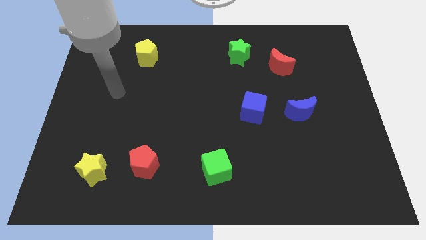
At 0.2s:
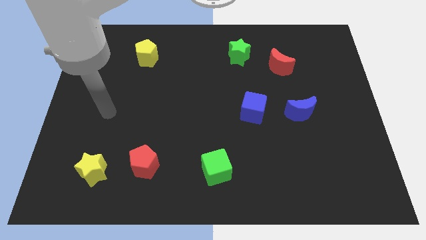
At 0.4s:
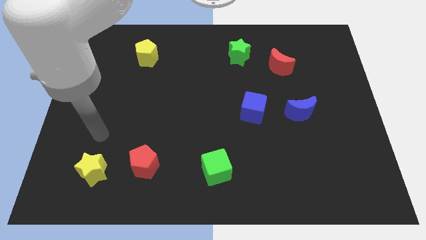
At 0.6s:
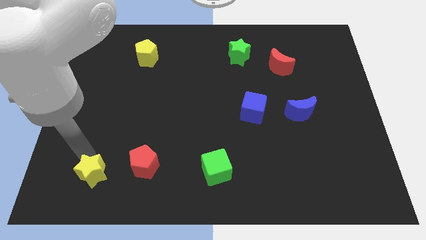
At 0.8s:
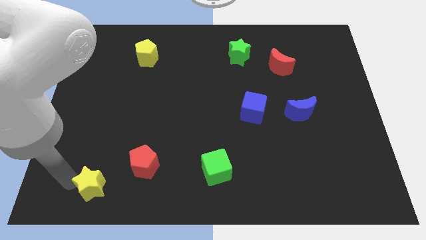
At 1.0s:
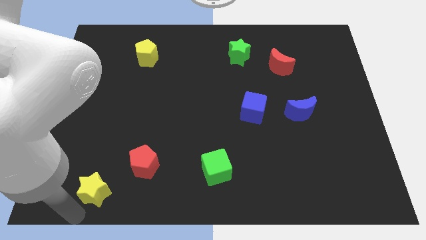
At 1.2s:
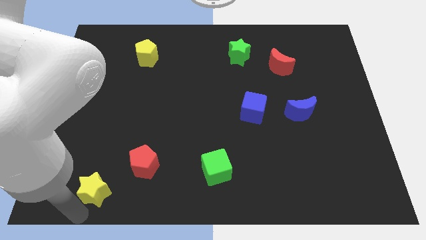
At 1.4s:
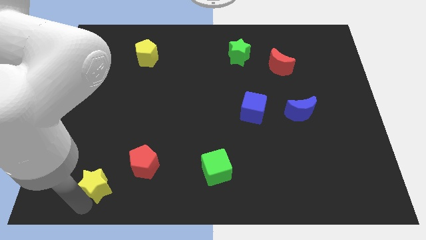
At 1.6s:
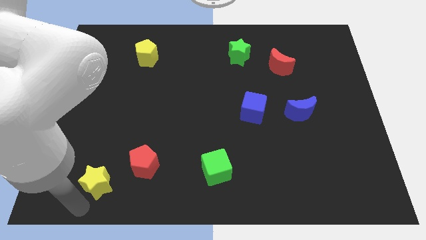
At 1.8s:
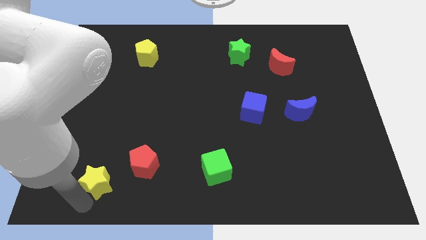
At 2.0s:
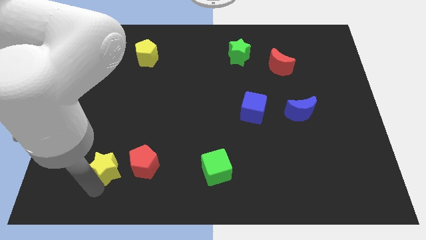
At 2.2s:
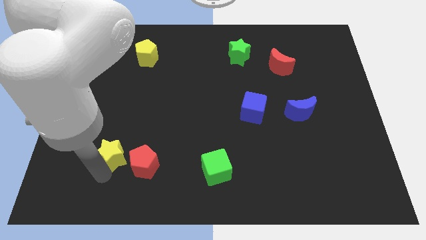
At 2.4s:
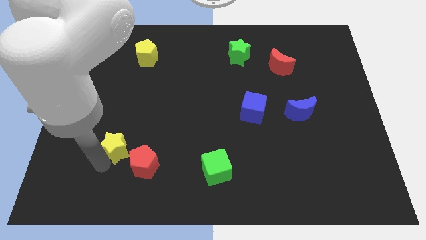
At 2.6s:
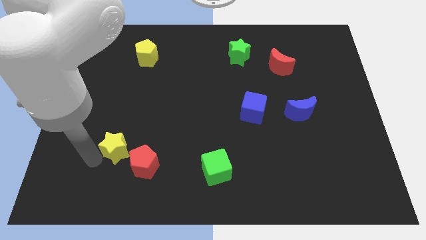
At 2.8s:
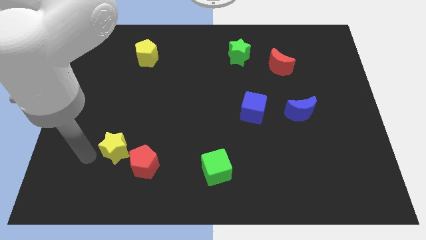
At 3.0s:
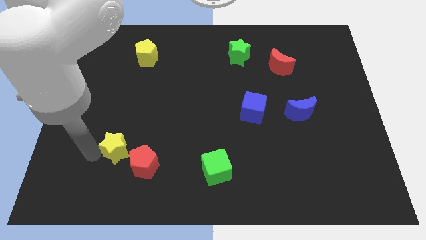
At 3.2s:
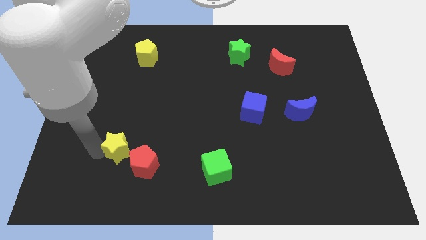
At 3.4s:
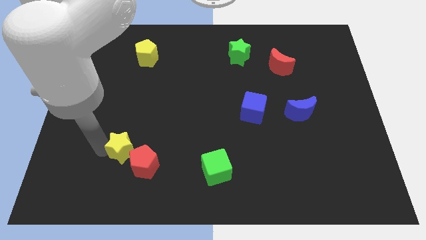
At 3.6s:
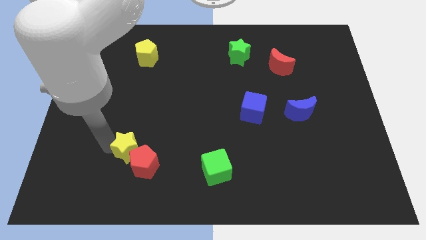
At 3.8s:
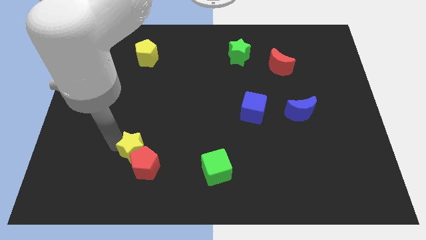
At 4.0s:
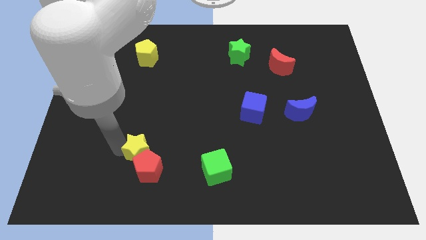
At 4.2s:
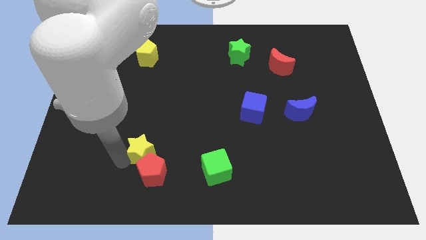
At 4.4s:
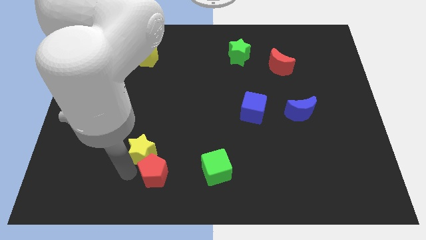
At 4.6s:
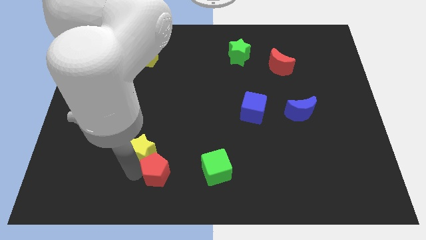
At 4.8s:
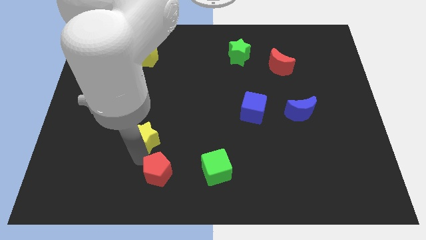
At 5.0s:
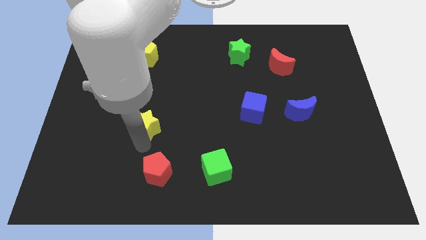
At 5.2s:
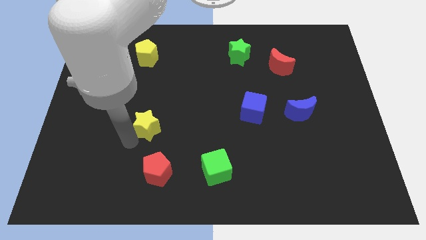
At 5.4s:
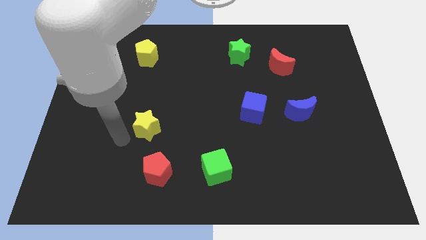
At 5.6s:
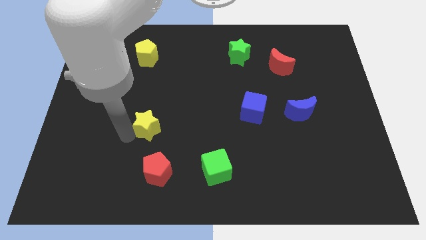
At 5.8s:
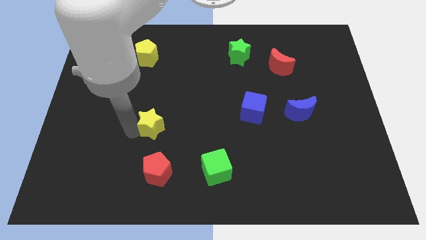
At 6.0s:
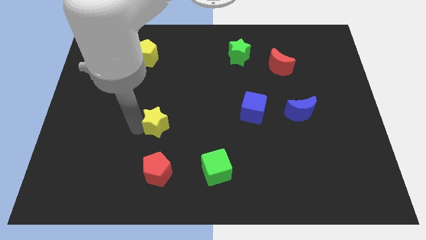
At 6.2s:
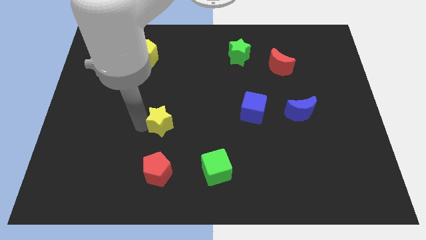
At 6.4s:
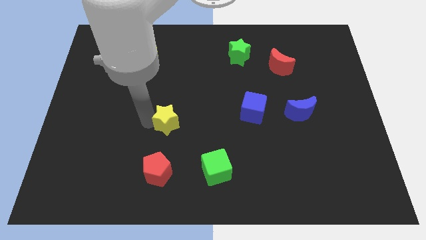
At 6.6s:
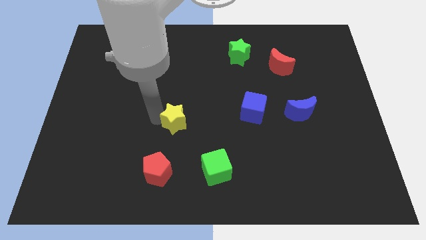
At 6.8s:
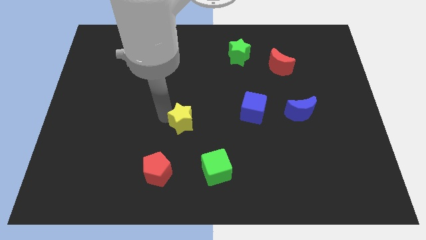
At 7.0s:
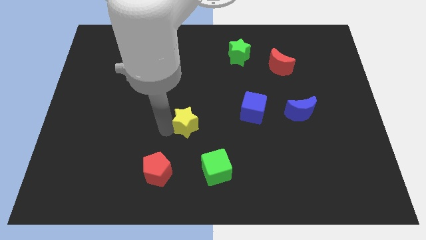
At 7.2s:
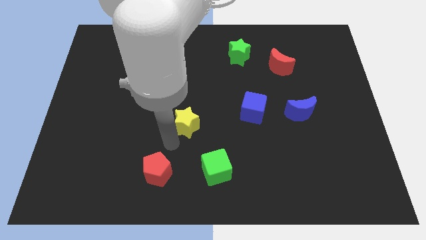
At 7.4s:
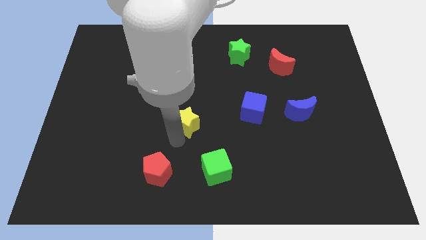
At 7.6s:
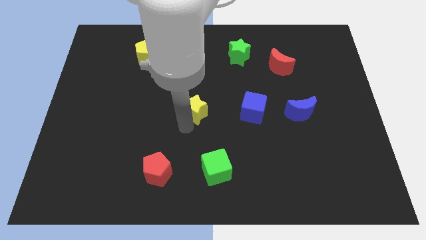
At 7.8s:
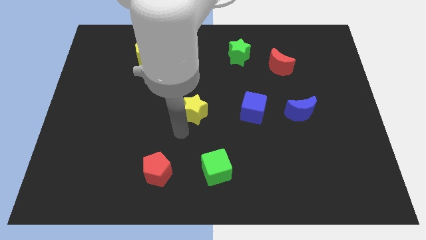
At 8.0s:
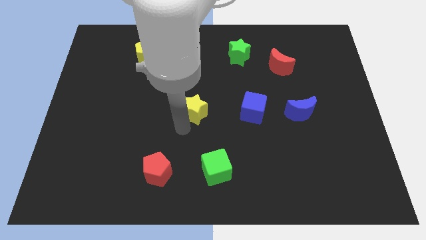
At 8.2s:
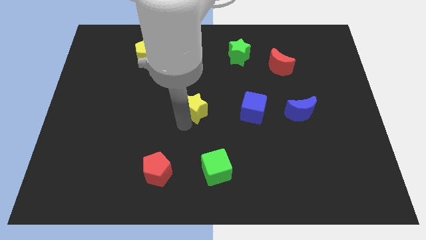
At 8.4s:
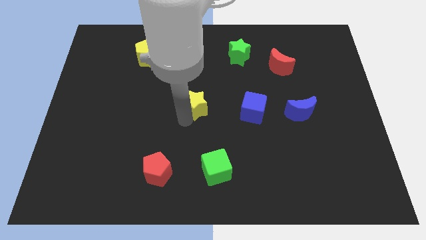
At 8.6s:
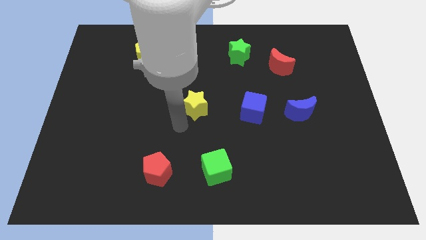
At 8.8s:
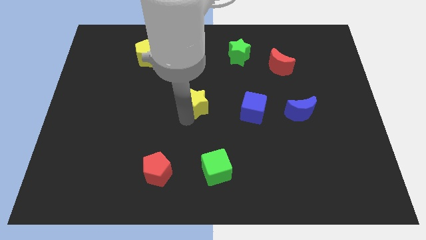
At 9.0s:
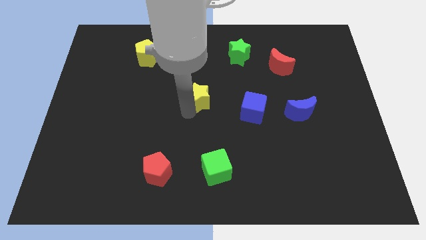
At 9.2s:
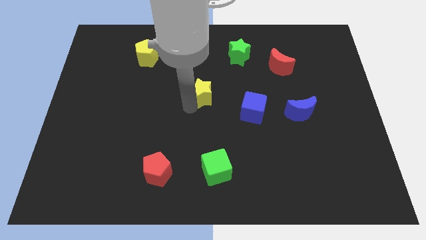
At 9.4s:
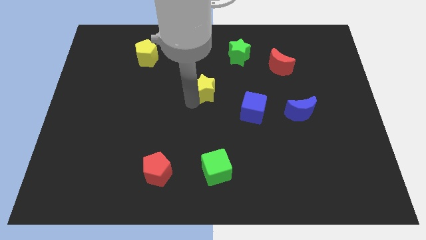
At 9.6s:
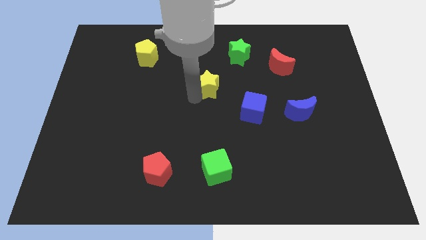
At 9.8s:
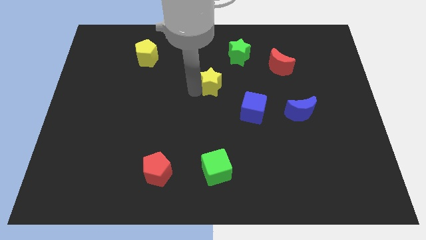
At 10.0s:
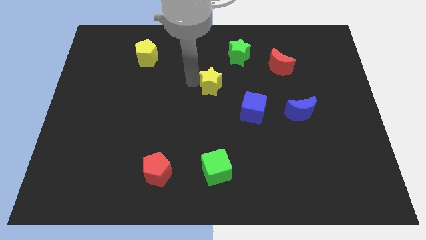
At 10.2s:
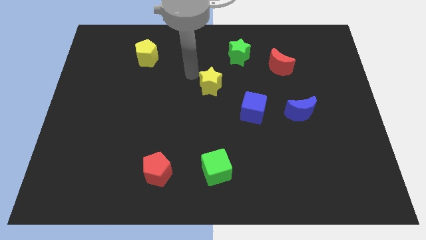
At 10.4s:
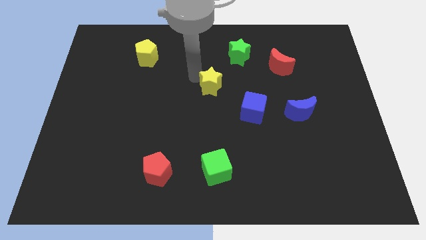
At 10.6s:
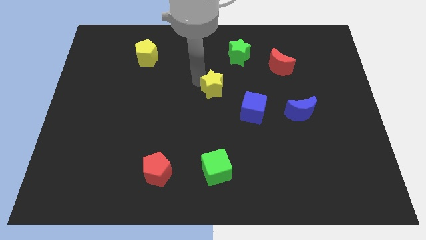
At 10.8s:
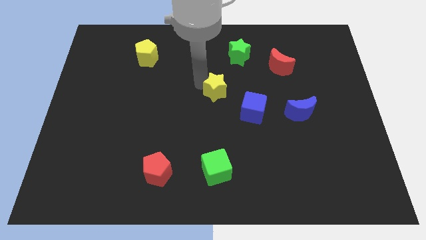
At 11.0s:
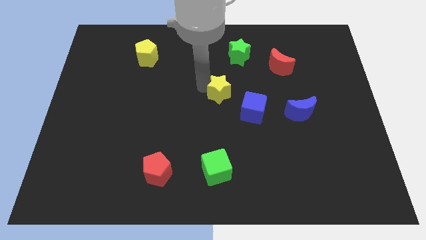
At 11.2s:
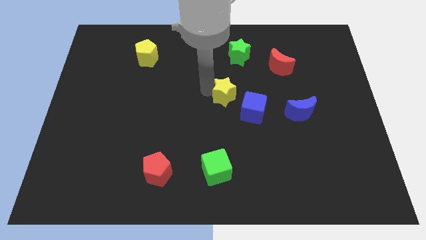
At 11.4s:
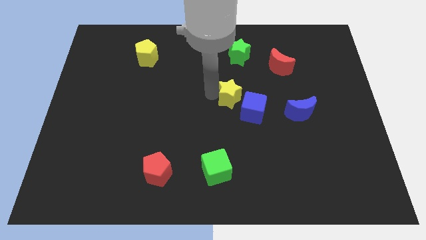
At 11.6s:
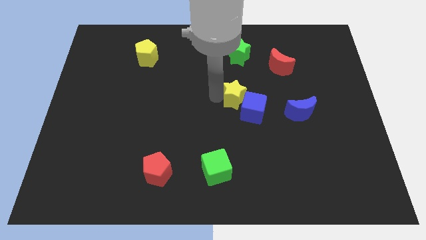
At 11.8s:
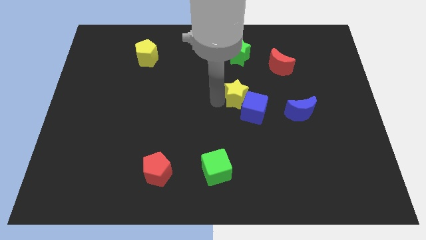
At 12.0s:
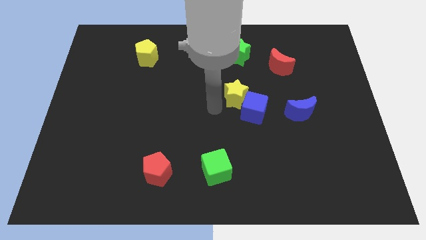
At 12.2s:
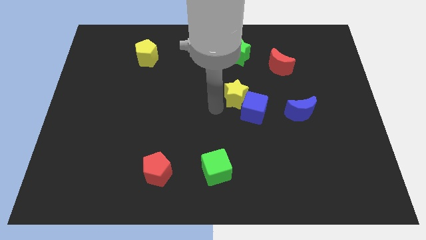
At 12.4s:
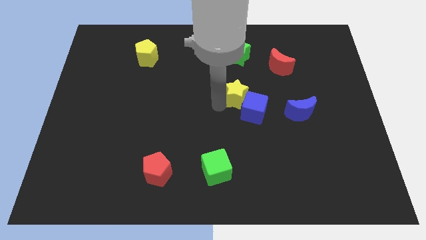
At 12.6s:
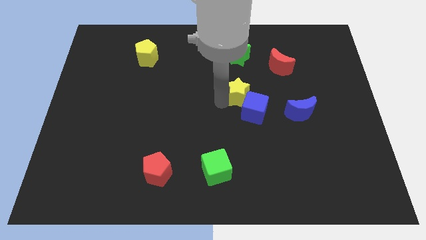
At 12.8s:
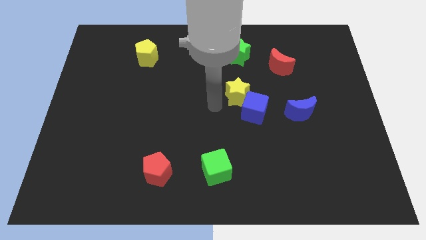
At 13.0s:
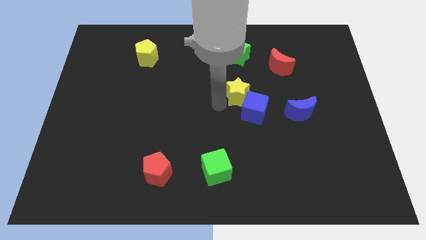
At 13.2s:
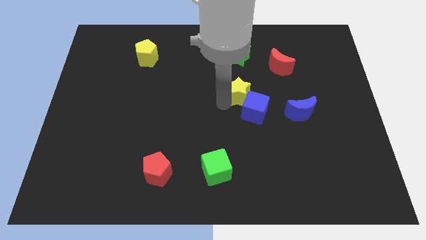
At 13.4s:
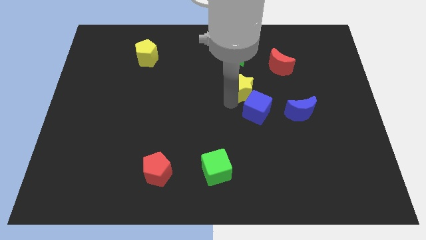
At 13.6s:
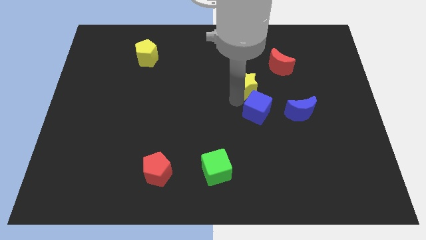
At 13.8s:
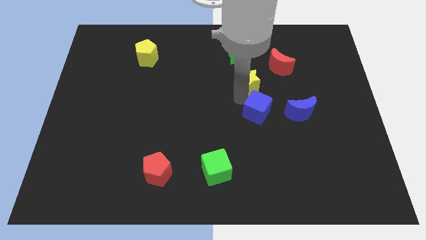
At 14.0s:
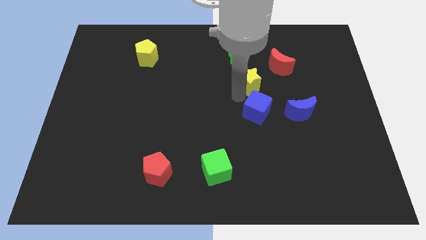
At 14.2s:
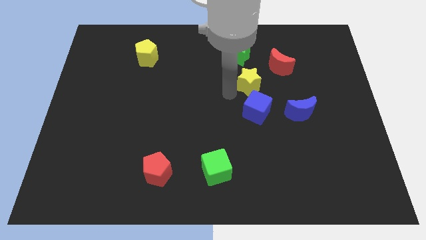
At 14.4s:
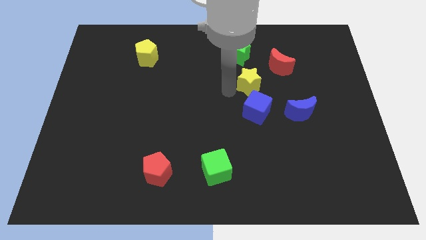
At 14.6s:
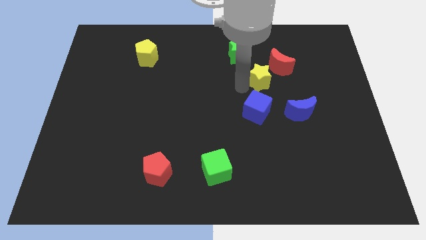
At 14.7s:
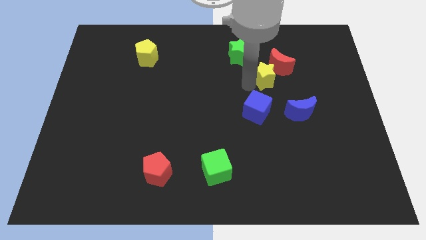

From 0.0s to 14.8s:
put the yellow star close to the red moon

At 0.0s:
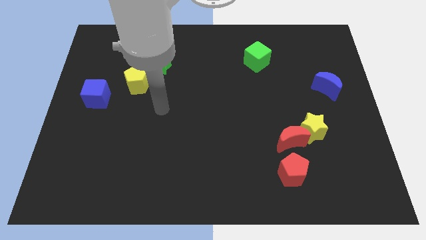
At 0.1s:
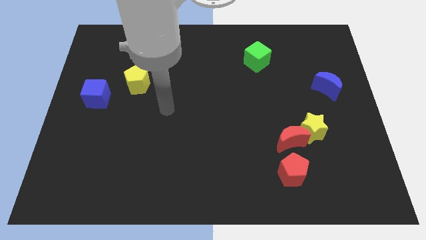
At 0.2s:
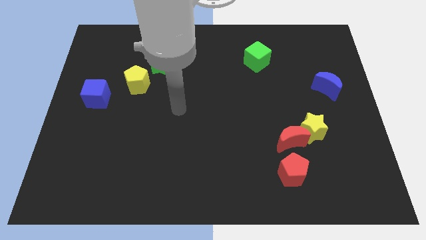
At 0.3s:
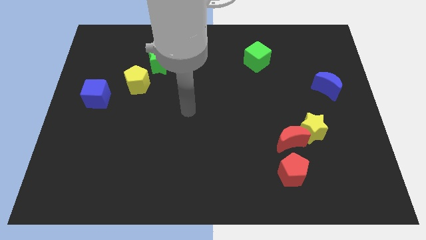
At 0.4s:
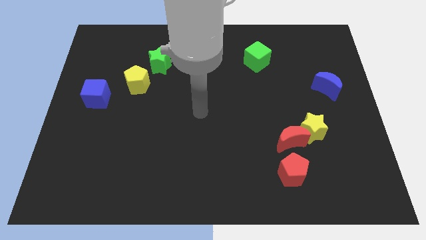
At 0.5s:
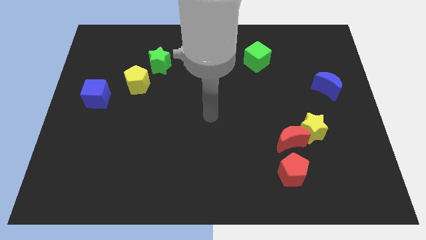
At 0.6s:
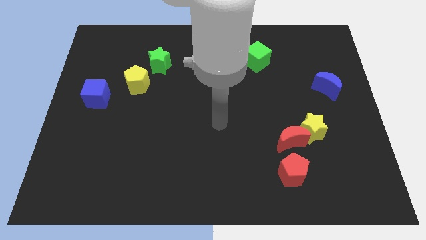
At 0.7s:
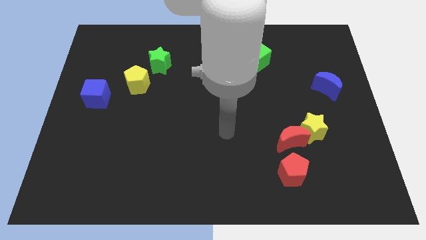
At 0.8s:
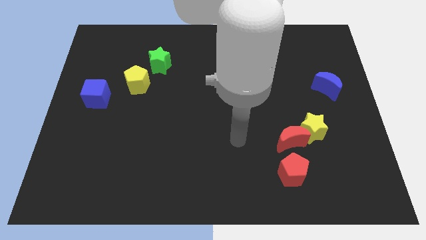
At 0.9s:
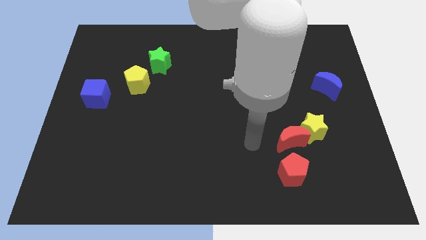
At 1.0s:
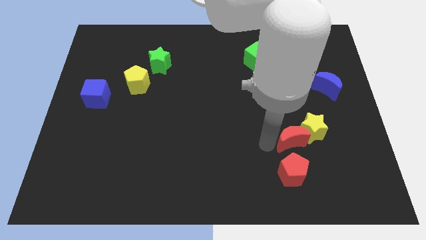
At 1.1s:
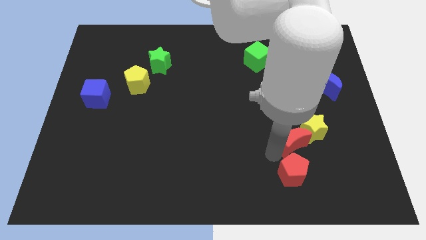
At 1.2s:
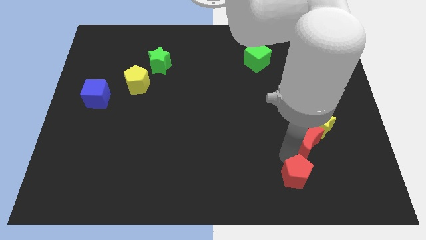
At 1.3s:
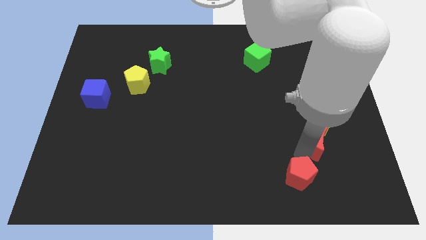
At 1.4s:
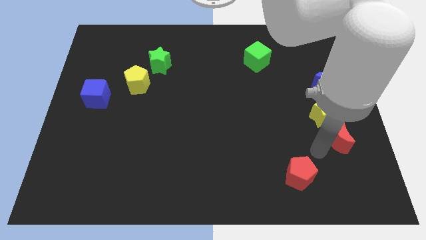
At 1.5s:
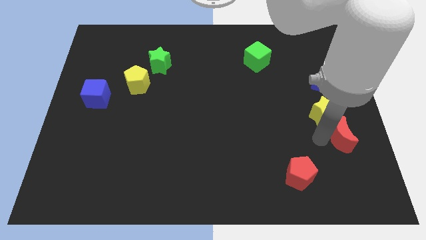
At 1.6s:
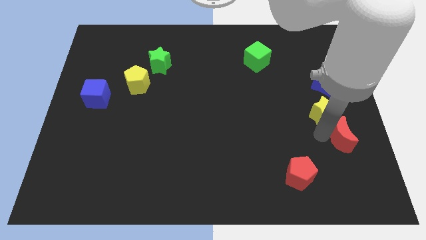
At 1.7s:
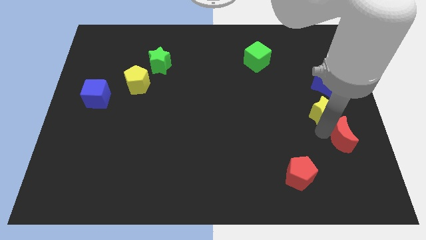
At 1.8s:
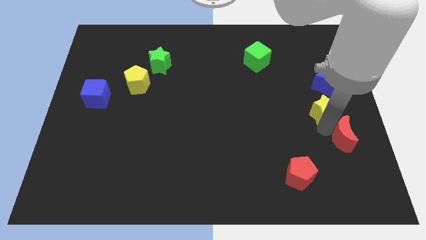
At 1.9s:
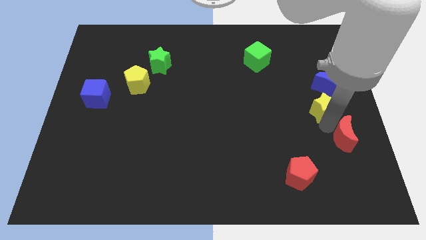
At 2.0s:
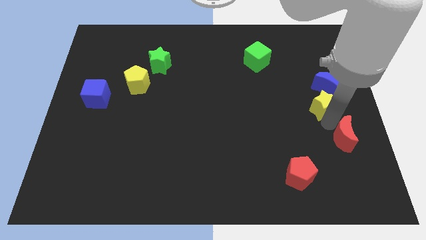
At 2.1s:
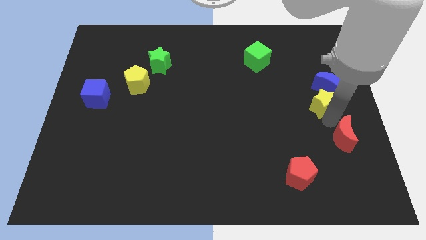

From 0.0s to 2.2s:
slide the yellow star towards the blue moon
